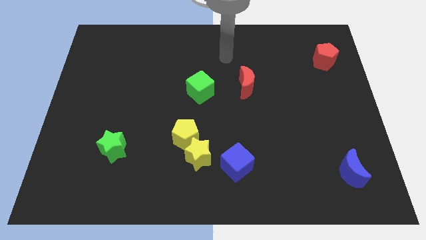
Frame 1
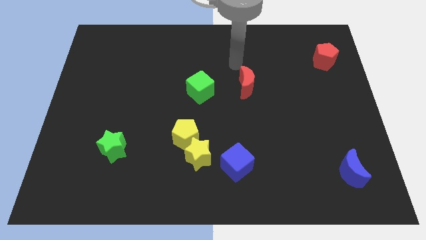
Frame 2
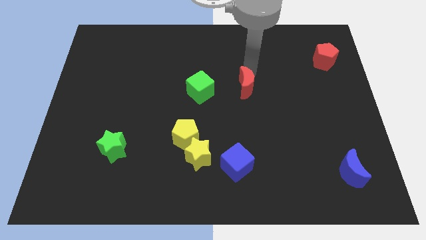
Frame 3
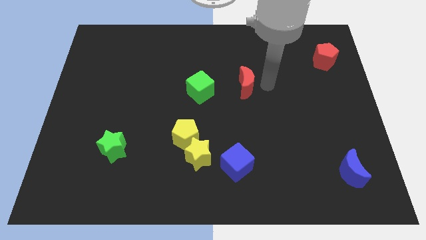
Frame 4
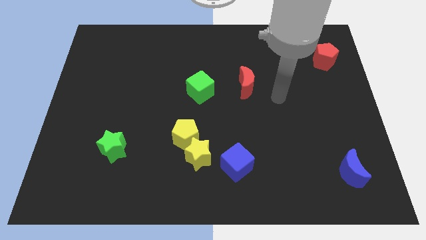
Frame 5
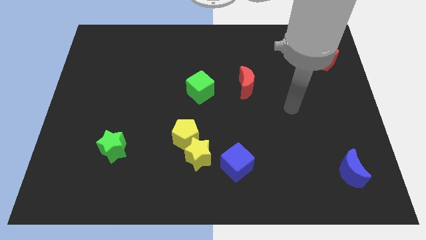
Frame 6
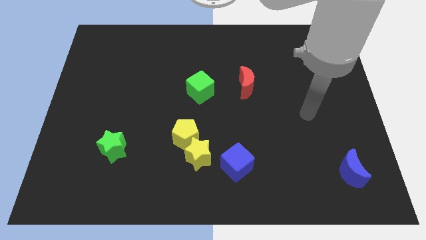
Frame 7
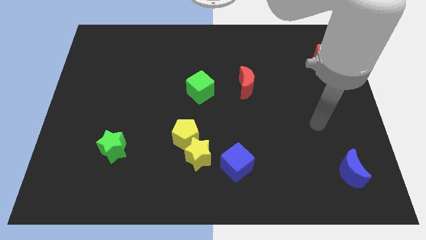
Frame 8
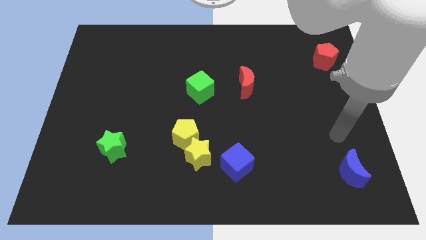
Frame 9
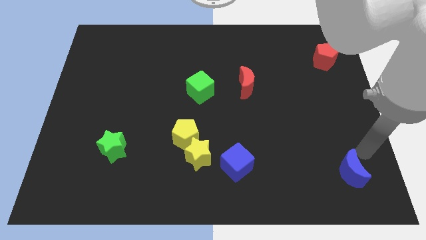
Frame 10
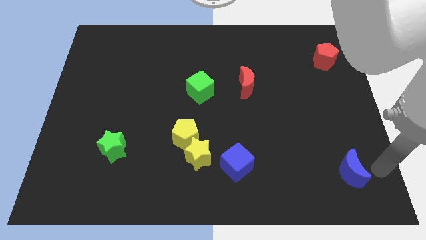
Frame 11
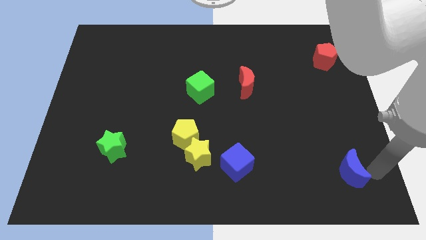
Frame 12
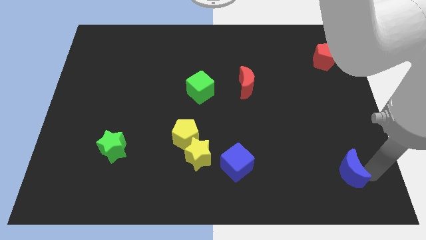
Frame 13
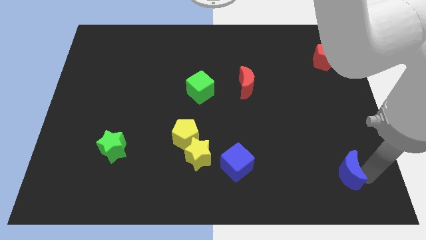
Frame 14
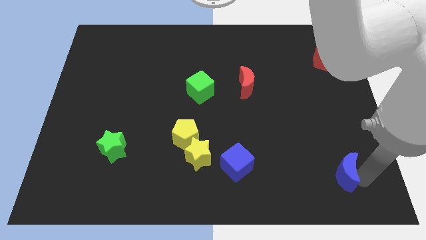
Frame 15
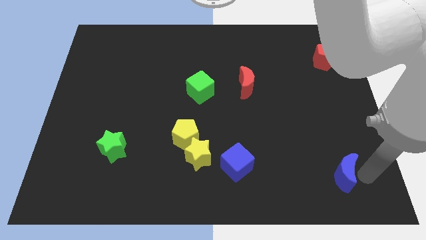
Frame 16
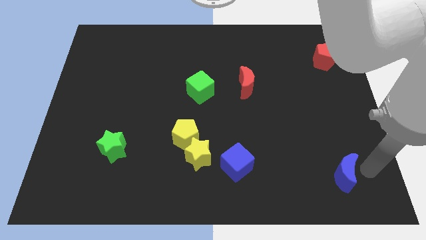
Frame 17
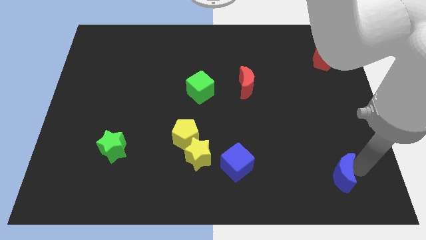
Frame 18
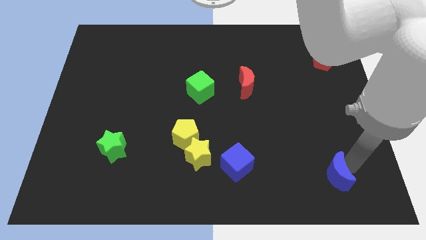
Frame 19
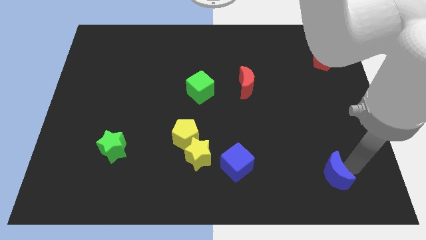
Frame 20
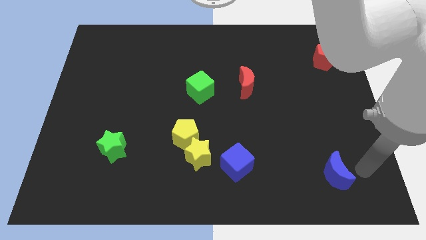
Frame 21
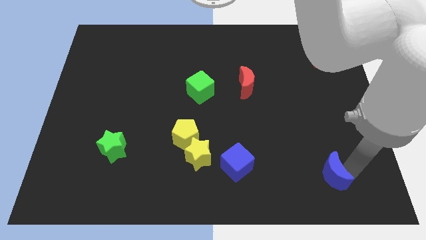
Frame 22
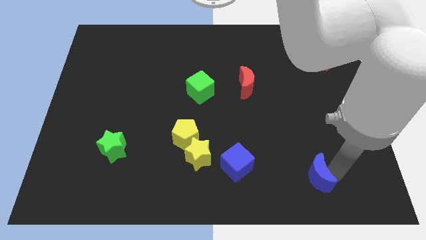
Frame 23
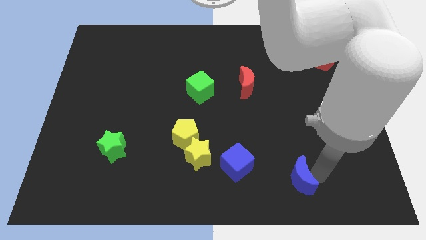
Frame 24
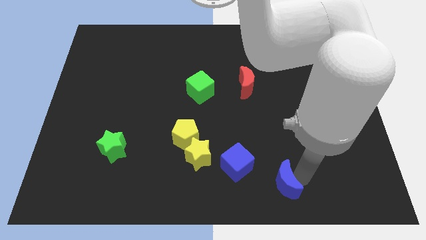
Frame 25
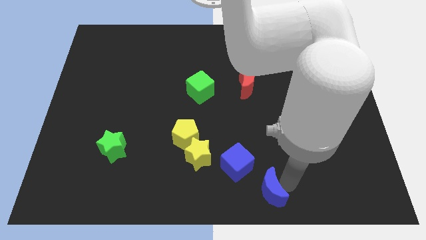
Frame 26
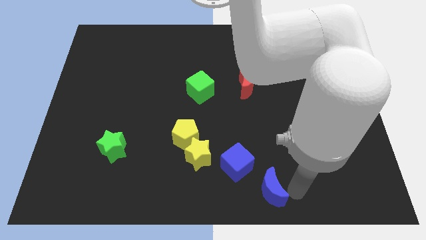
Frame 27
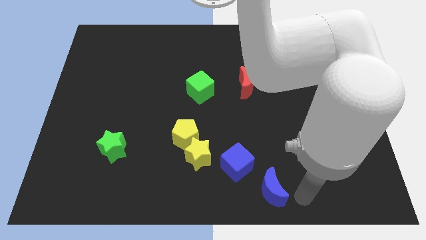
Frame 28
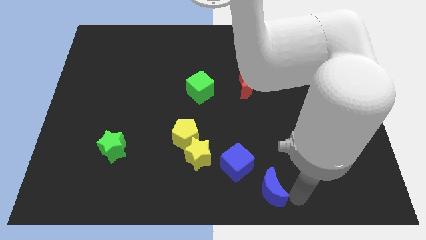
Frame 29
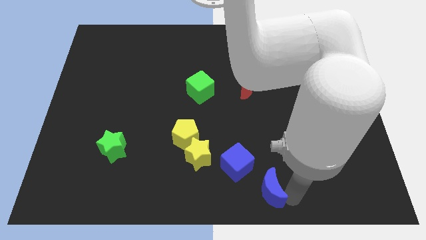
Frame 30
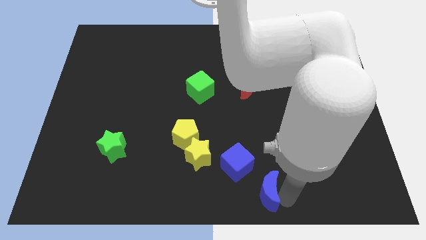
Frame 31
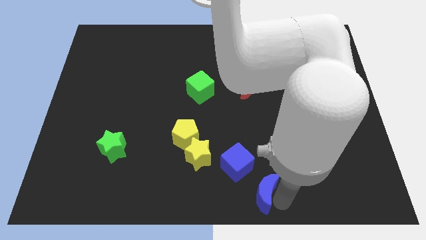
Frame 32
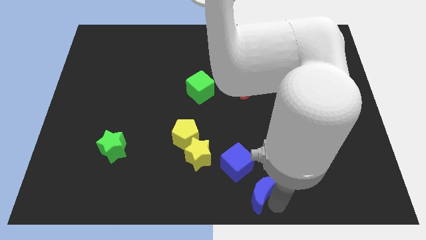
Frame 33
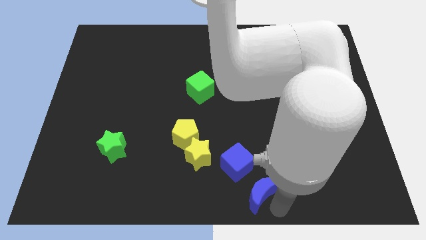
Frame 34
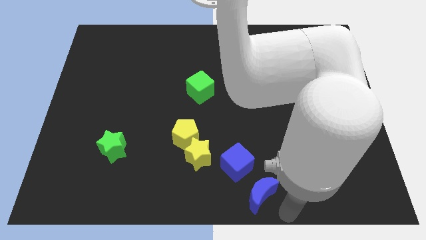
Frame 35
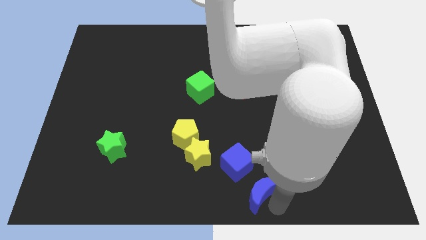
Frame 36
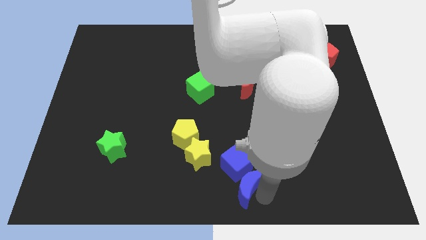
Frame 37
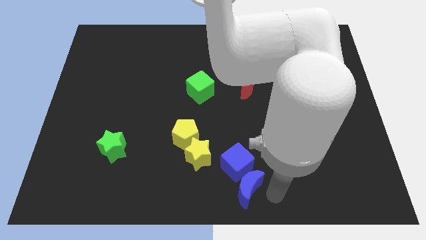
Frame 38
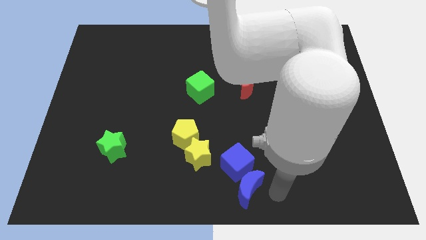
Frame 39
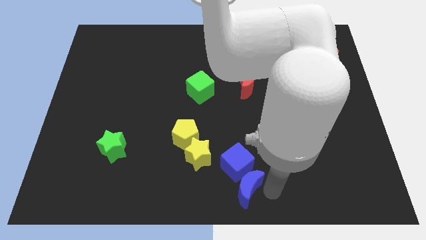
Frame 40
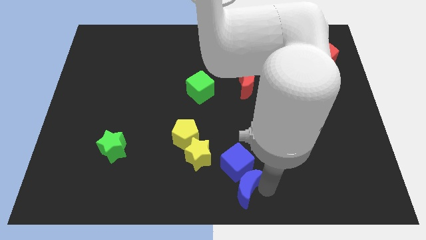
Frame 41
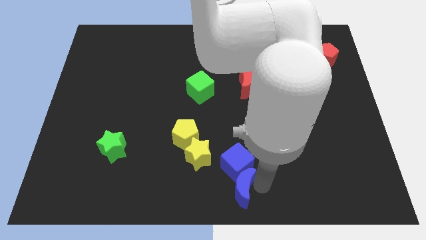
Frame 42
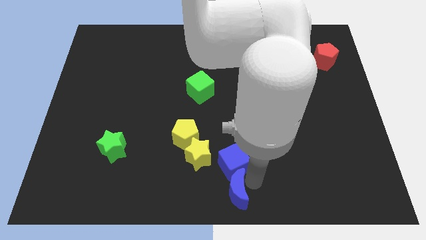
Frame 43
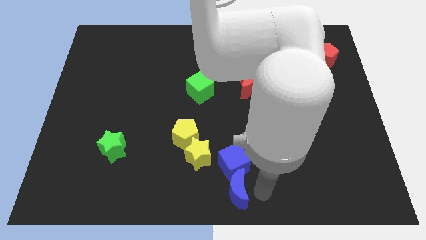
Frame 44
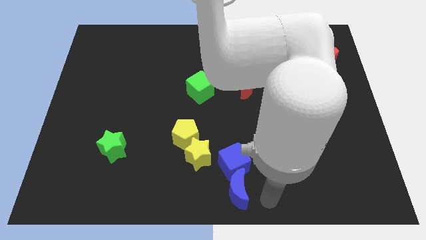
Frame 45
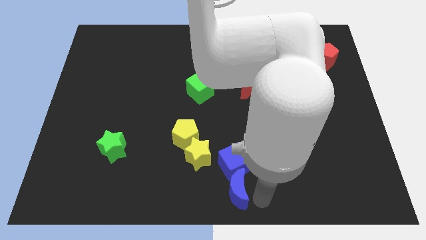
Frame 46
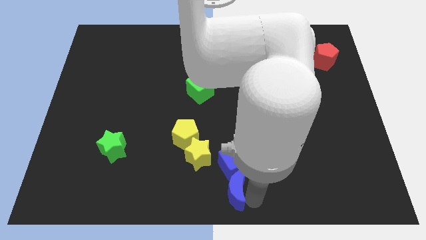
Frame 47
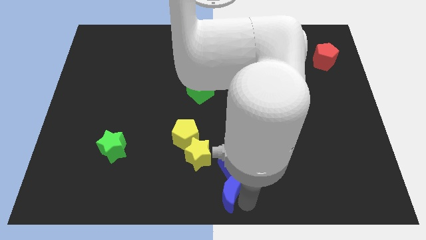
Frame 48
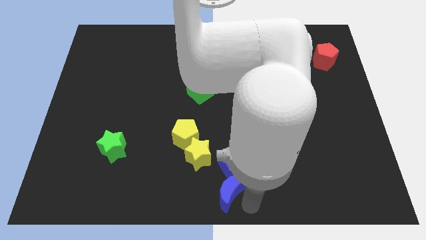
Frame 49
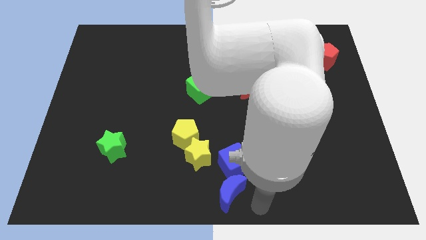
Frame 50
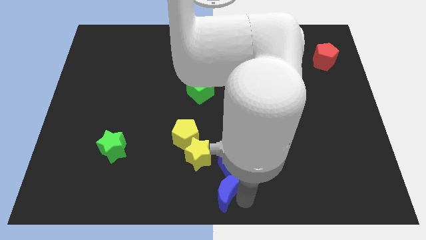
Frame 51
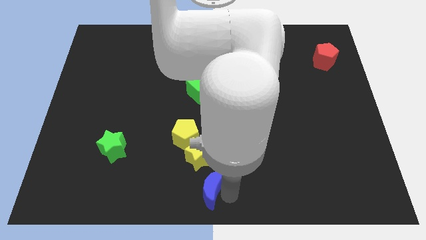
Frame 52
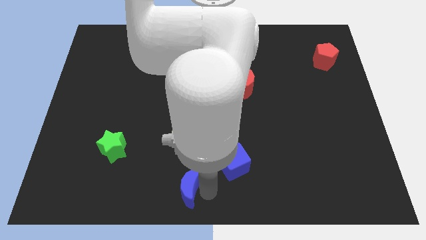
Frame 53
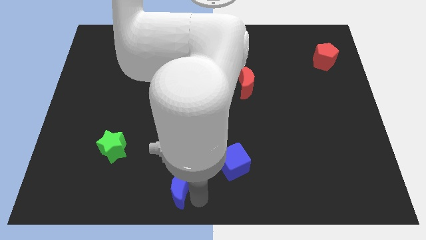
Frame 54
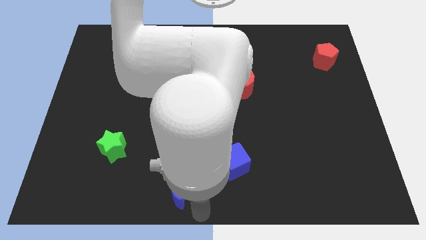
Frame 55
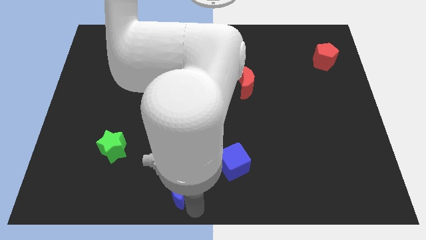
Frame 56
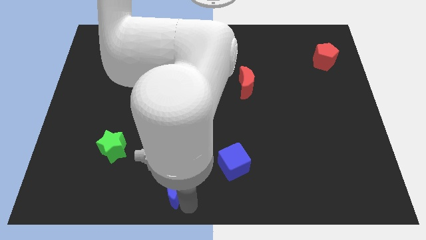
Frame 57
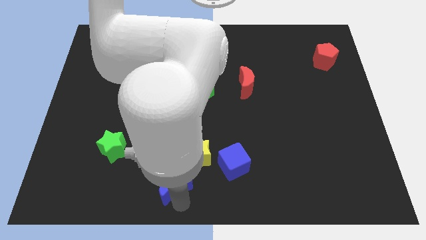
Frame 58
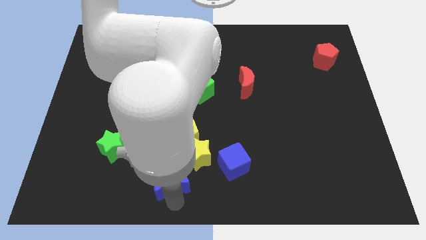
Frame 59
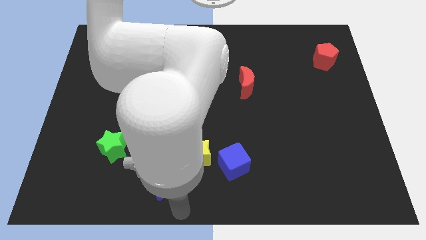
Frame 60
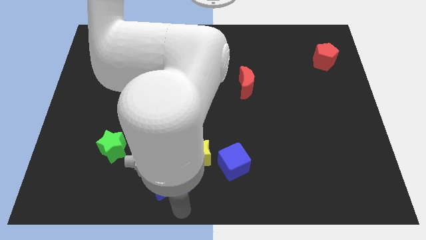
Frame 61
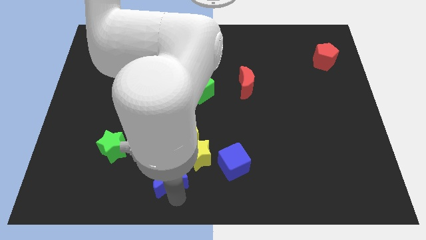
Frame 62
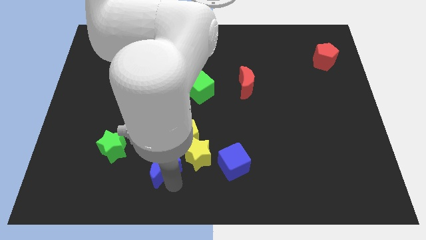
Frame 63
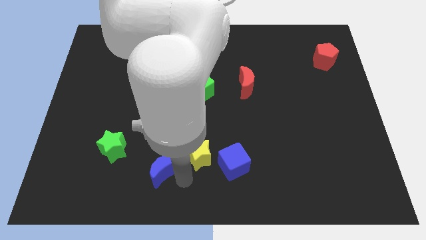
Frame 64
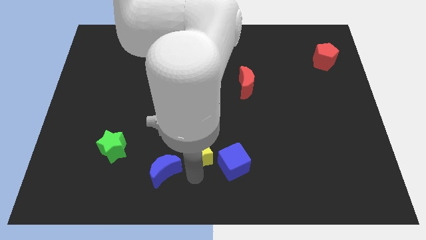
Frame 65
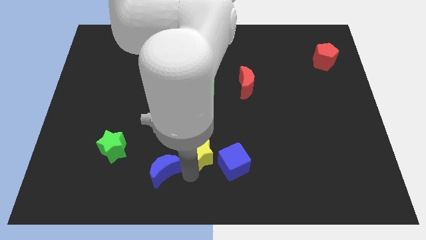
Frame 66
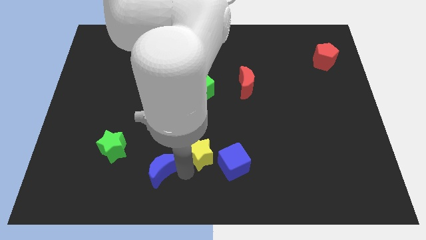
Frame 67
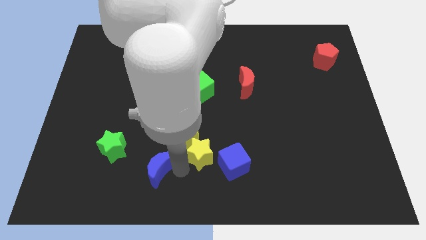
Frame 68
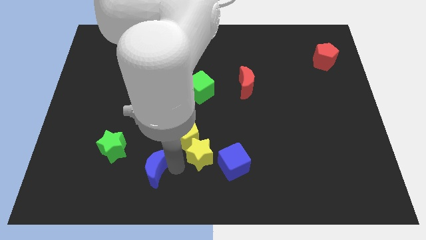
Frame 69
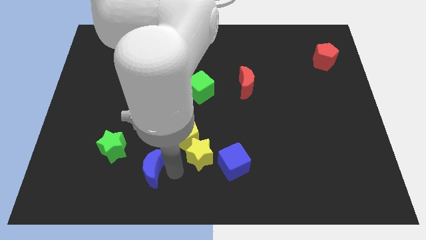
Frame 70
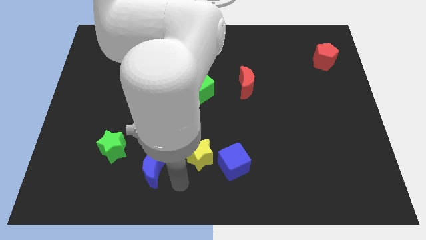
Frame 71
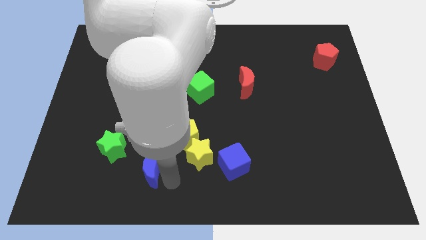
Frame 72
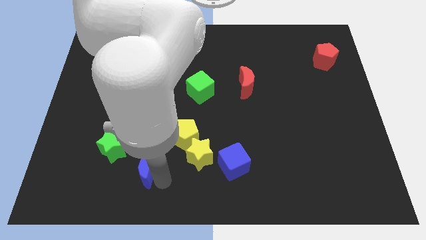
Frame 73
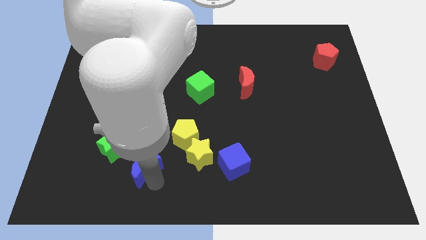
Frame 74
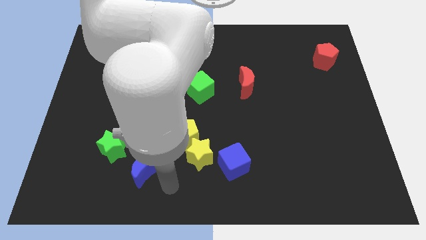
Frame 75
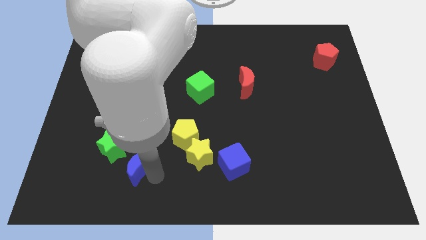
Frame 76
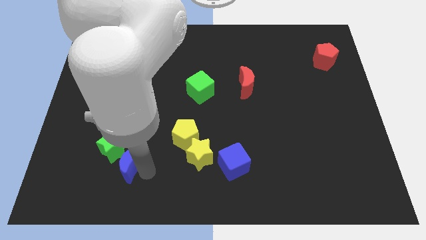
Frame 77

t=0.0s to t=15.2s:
push the blue moon next to the green star
